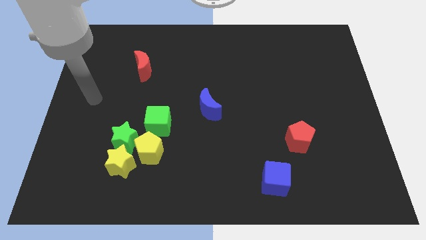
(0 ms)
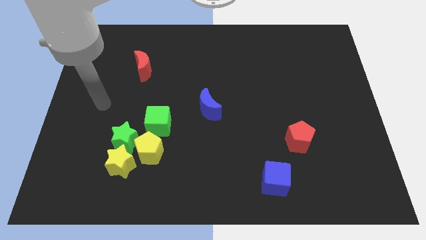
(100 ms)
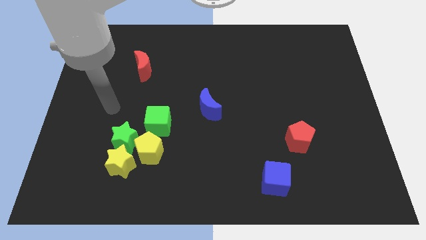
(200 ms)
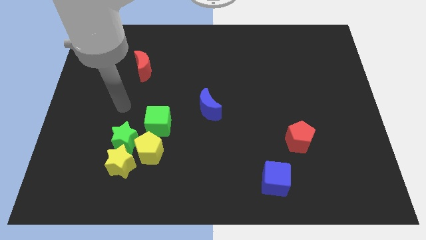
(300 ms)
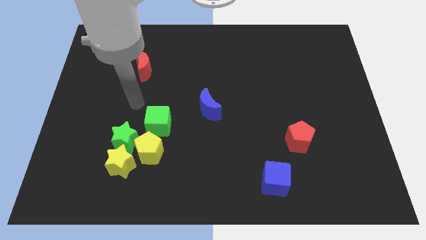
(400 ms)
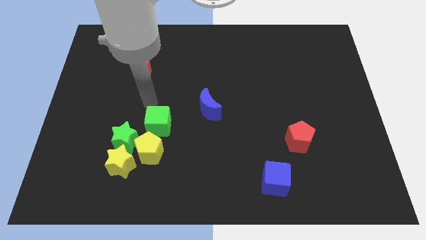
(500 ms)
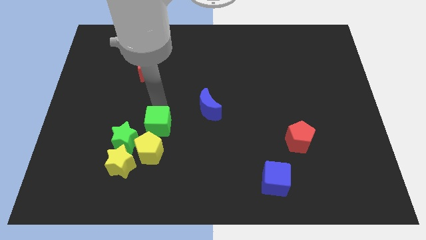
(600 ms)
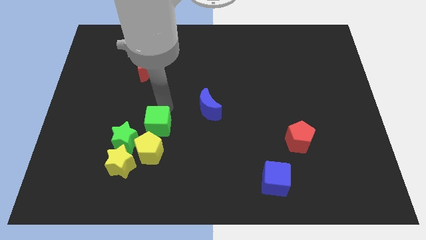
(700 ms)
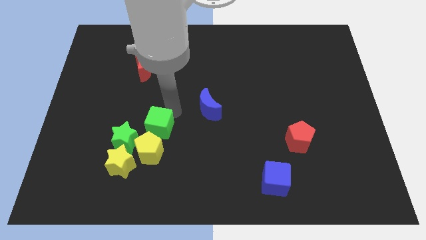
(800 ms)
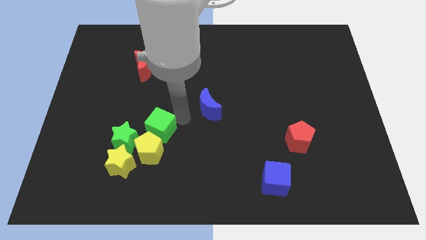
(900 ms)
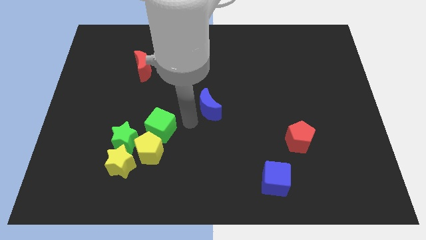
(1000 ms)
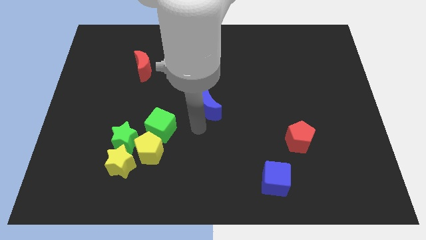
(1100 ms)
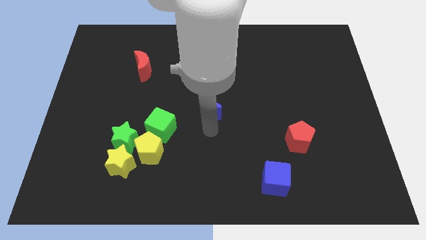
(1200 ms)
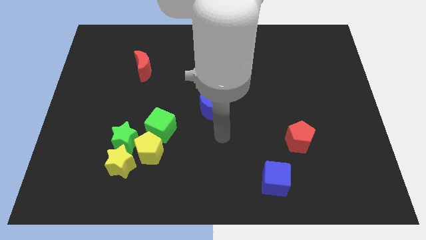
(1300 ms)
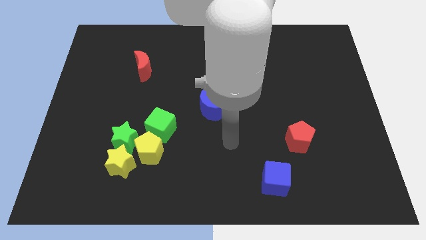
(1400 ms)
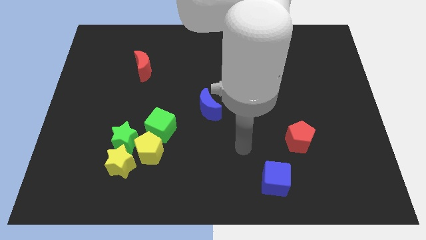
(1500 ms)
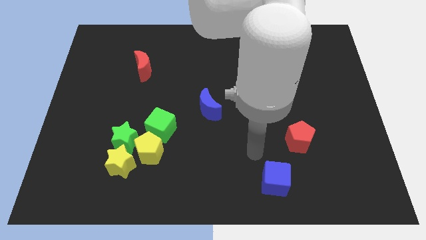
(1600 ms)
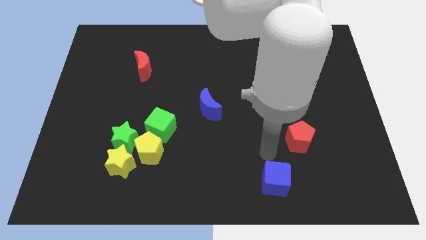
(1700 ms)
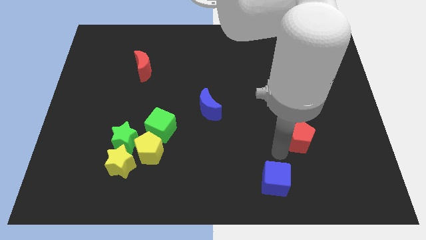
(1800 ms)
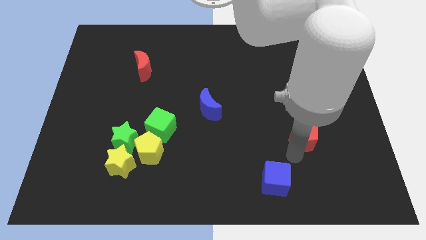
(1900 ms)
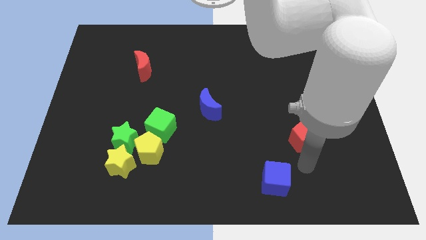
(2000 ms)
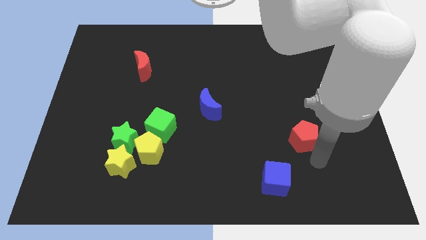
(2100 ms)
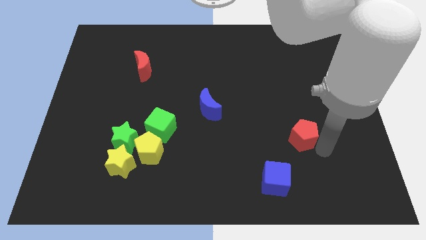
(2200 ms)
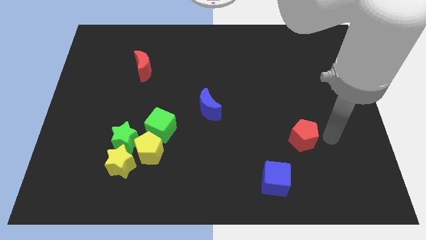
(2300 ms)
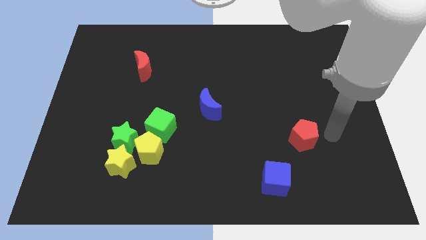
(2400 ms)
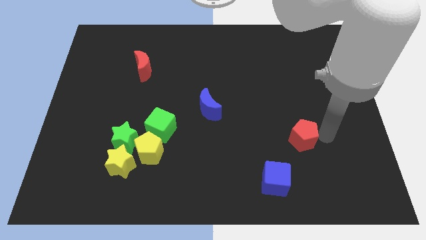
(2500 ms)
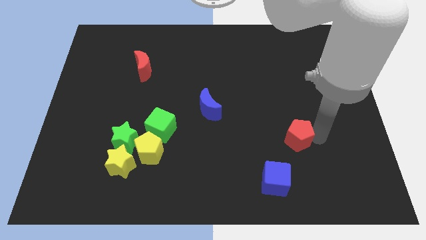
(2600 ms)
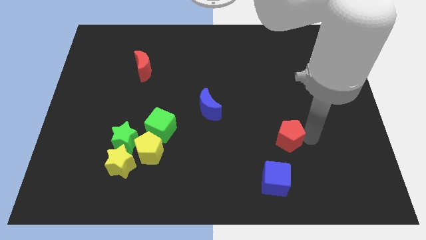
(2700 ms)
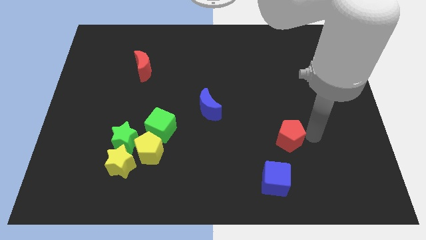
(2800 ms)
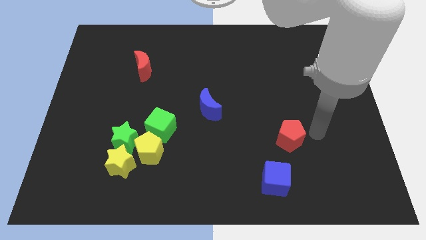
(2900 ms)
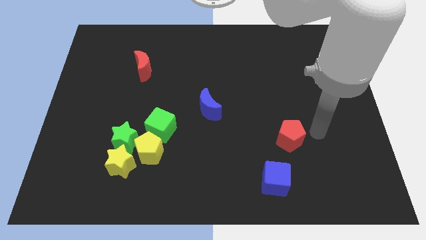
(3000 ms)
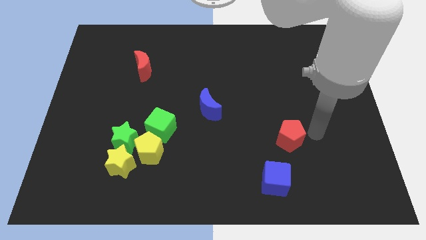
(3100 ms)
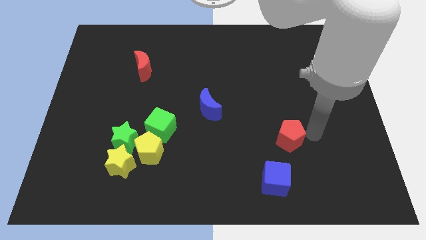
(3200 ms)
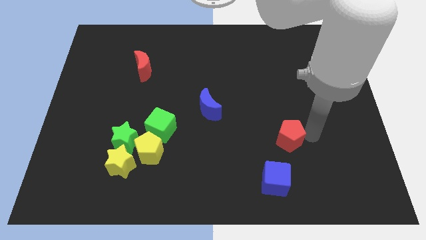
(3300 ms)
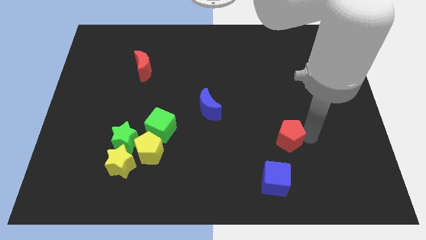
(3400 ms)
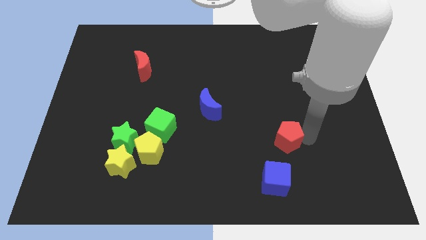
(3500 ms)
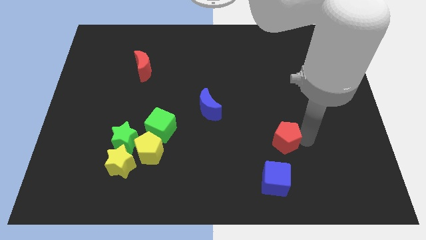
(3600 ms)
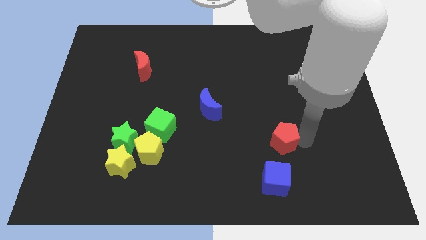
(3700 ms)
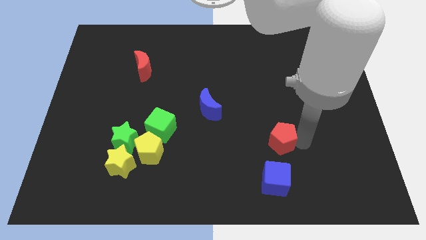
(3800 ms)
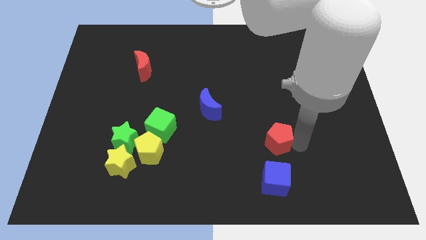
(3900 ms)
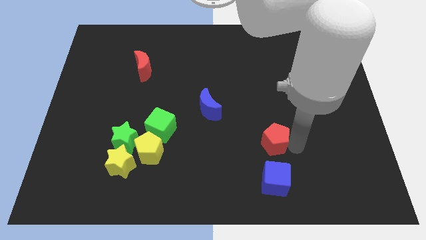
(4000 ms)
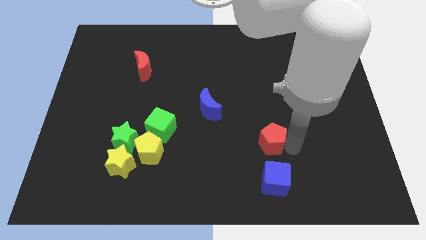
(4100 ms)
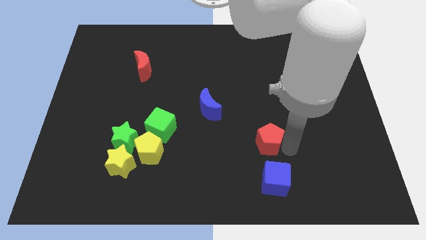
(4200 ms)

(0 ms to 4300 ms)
slightly push the red pentagon to the left

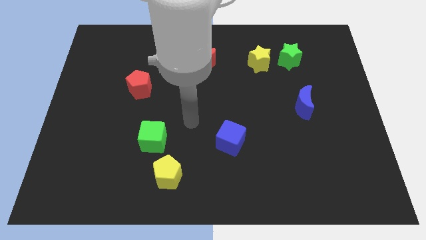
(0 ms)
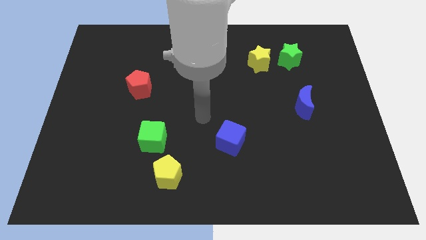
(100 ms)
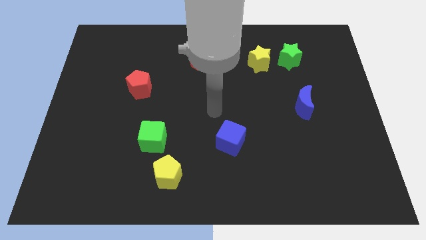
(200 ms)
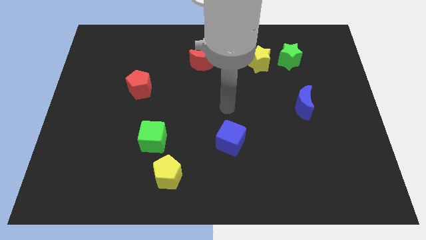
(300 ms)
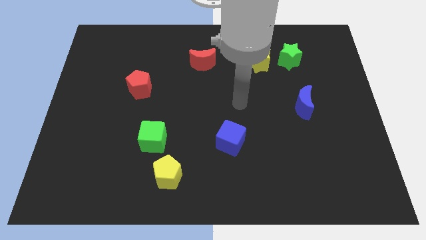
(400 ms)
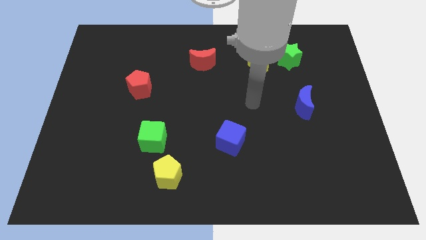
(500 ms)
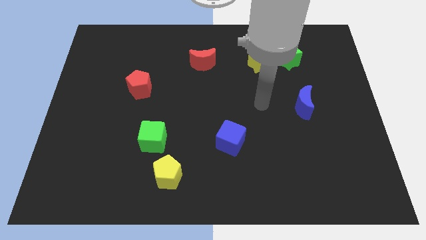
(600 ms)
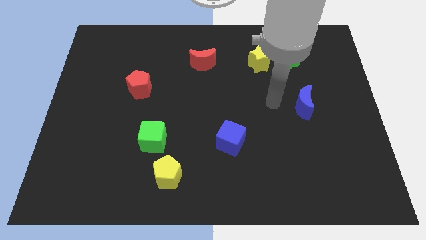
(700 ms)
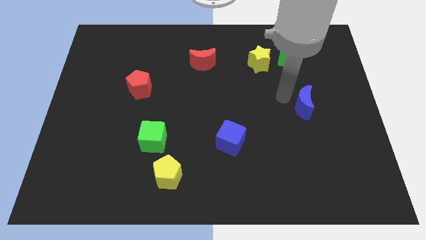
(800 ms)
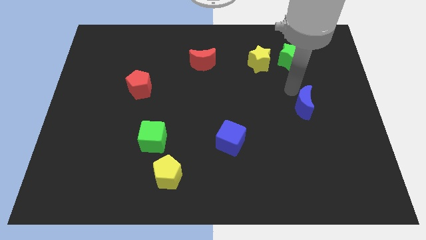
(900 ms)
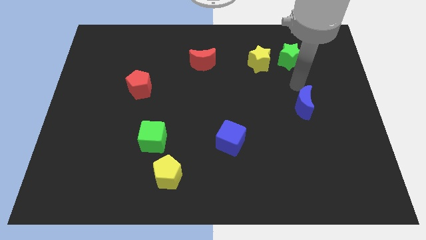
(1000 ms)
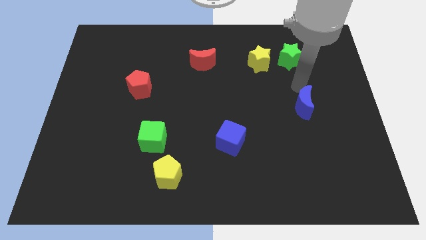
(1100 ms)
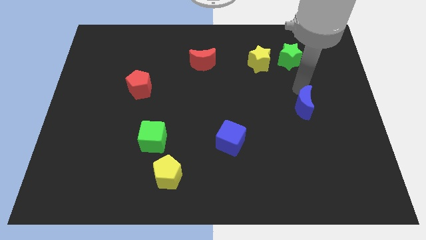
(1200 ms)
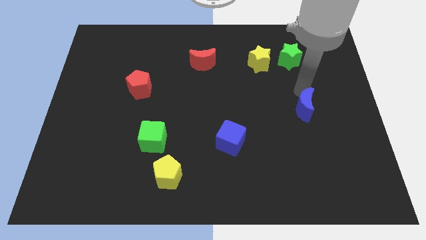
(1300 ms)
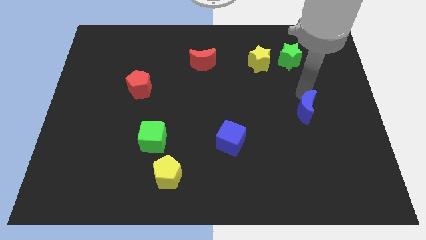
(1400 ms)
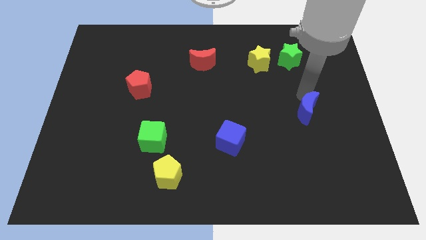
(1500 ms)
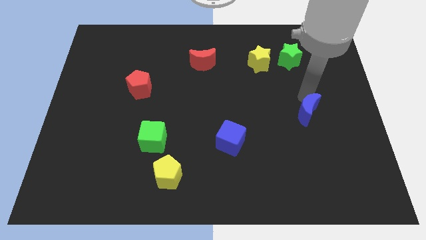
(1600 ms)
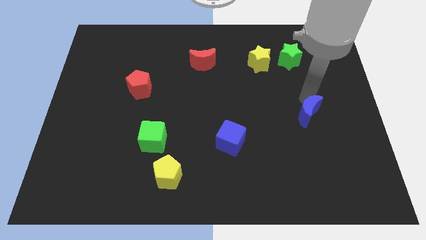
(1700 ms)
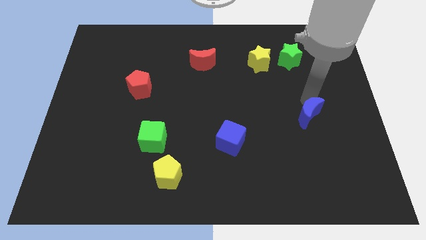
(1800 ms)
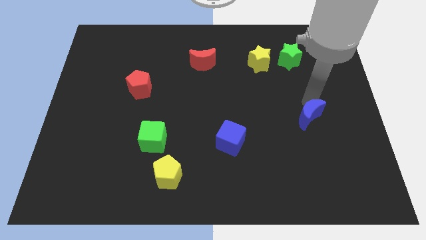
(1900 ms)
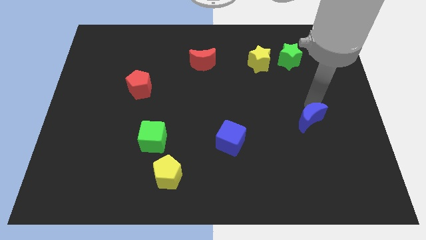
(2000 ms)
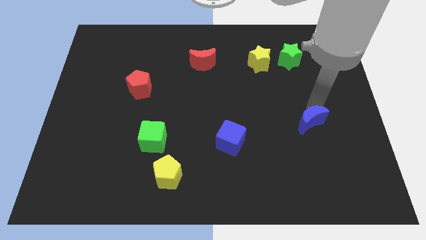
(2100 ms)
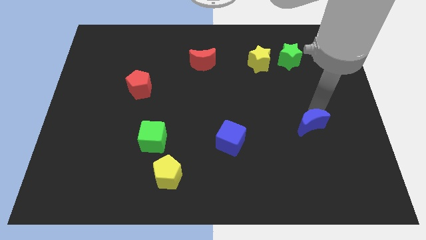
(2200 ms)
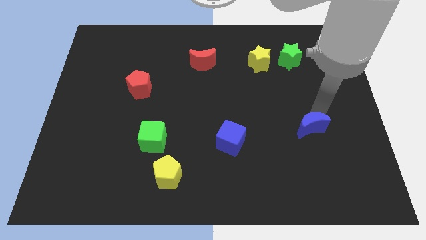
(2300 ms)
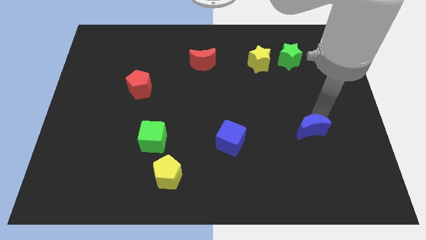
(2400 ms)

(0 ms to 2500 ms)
slide the blue moon down a little bit

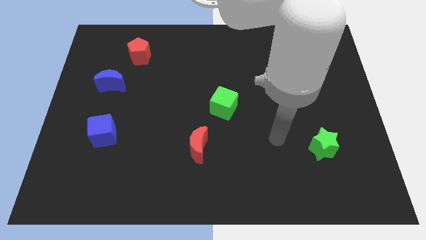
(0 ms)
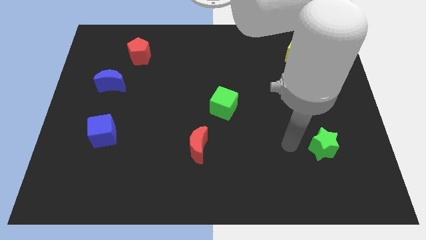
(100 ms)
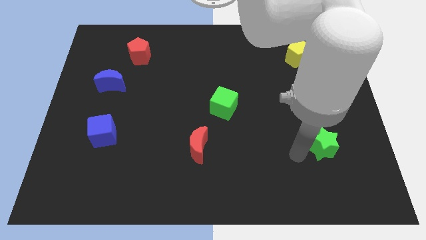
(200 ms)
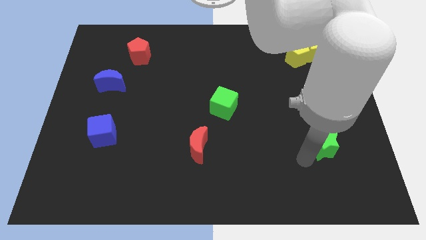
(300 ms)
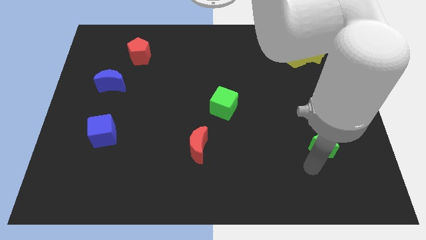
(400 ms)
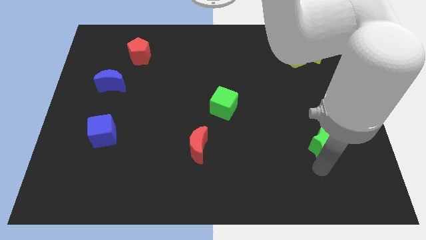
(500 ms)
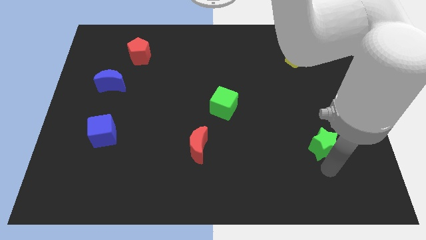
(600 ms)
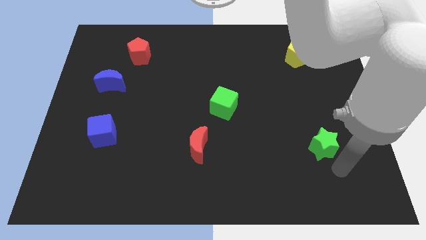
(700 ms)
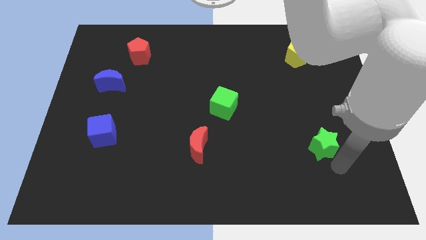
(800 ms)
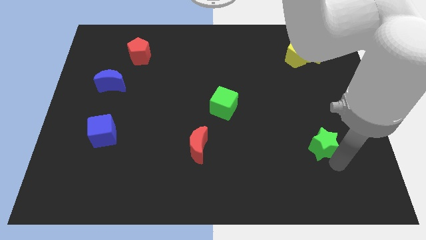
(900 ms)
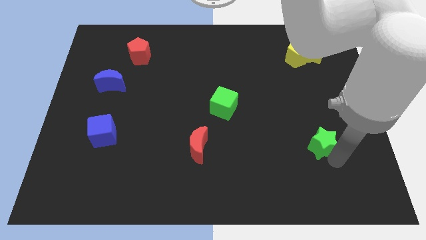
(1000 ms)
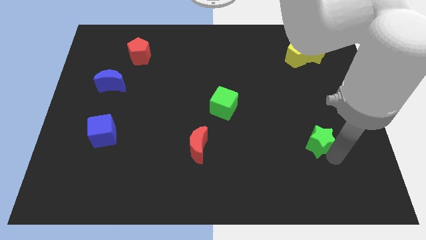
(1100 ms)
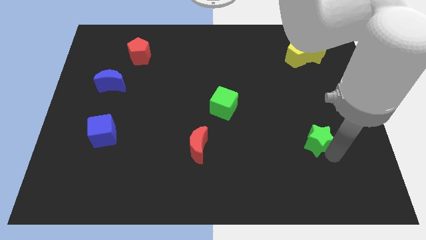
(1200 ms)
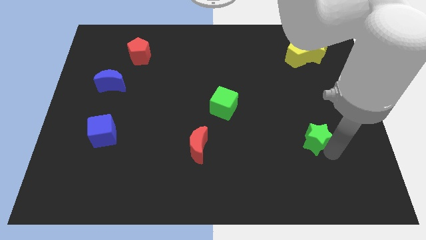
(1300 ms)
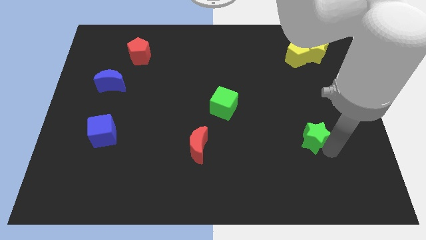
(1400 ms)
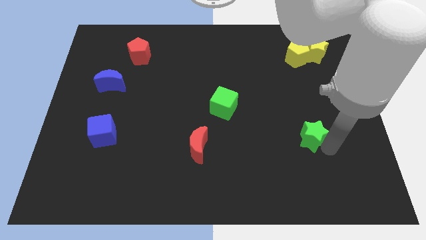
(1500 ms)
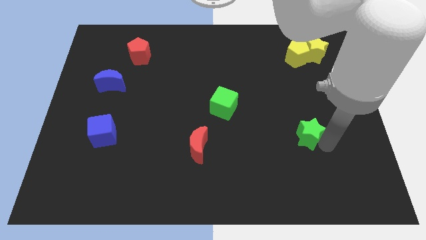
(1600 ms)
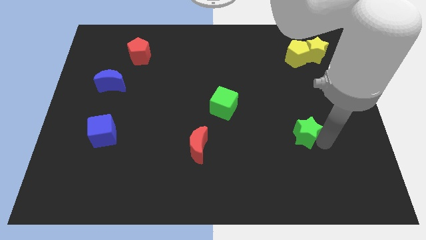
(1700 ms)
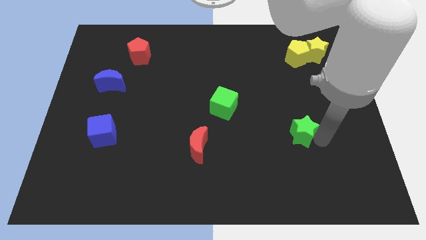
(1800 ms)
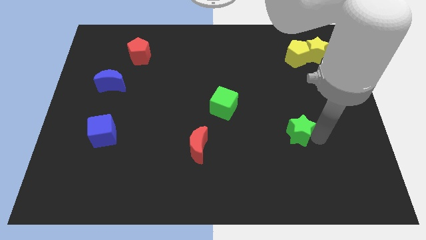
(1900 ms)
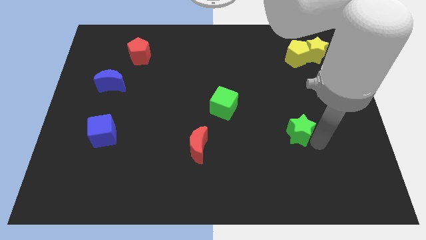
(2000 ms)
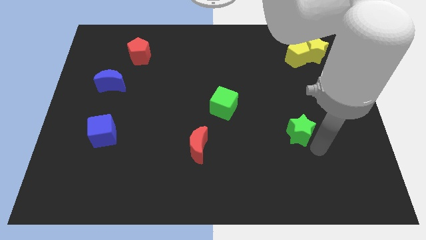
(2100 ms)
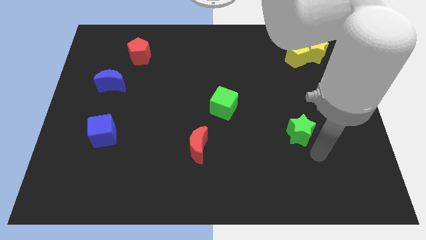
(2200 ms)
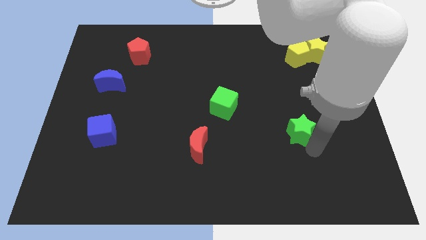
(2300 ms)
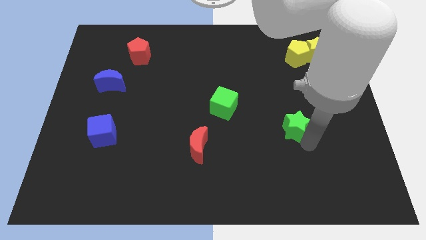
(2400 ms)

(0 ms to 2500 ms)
slightly push the green star upwards and to the left
